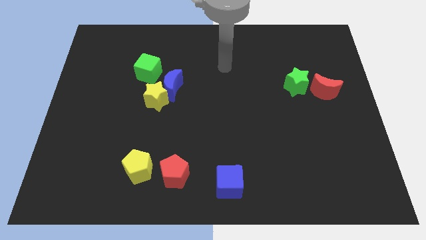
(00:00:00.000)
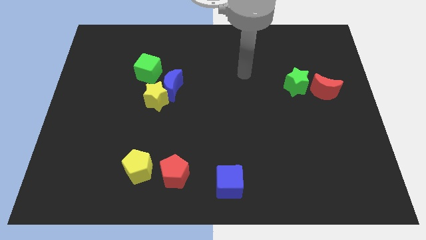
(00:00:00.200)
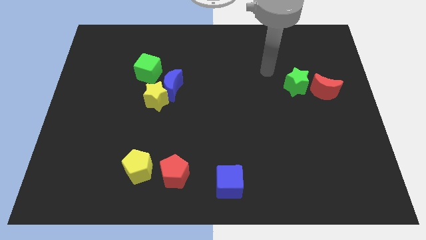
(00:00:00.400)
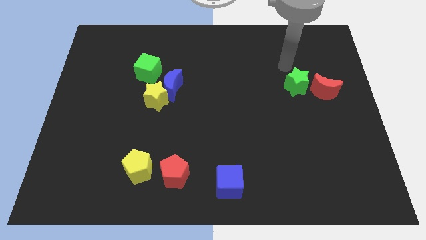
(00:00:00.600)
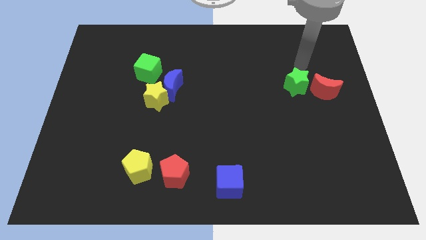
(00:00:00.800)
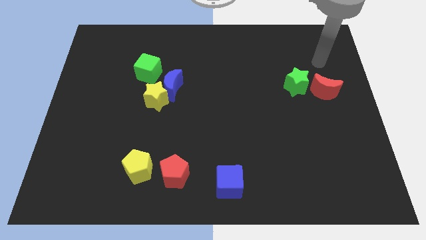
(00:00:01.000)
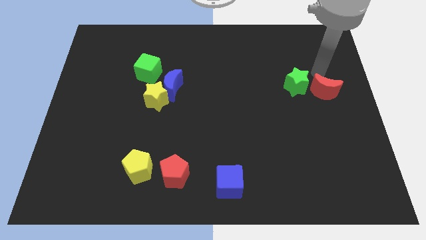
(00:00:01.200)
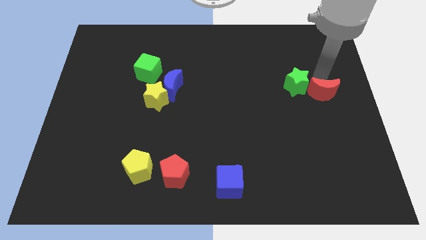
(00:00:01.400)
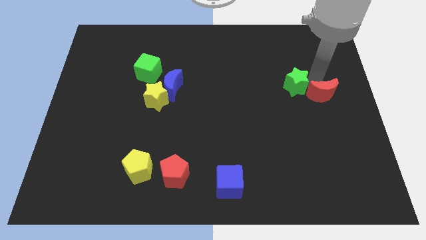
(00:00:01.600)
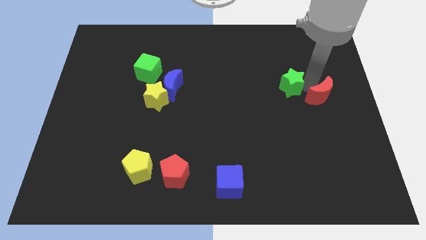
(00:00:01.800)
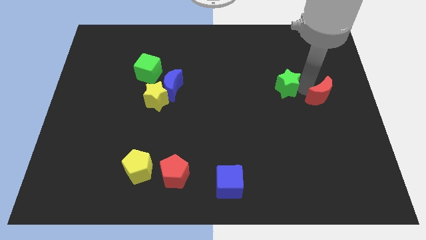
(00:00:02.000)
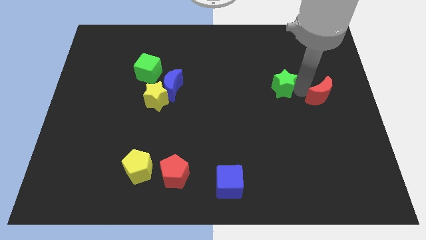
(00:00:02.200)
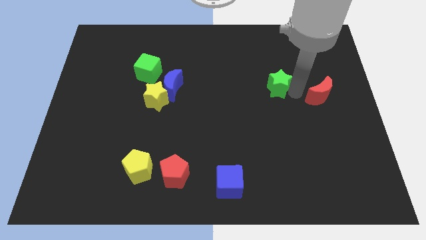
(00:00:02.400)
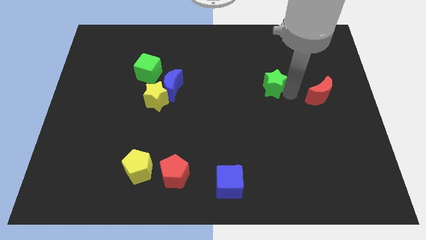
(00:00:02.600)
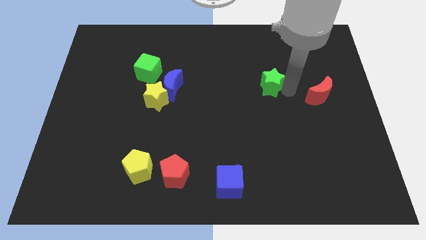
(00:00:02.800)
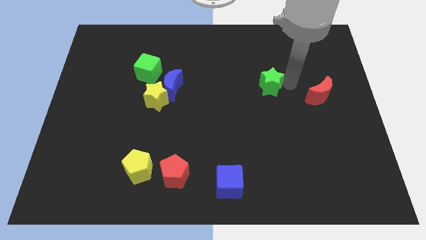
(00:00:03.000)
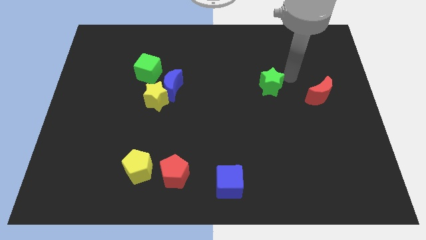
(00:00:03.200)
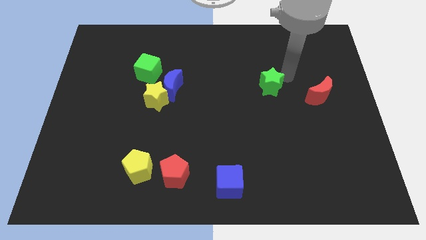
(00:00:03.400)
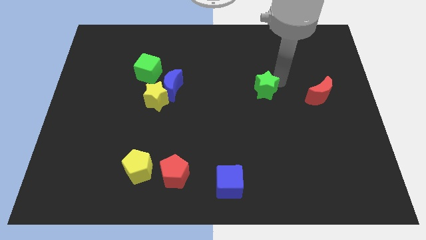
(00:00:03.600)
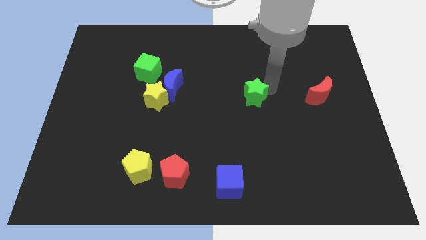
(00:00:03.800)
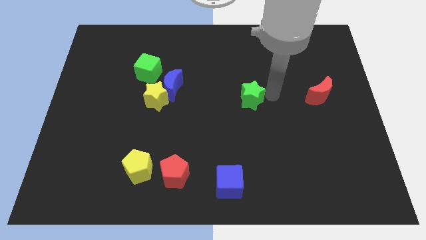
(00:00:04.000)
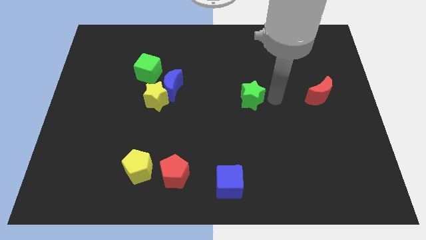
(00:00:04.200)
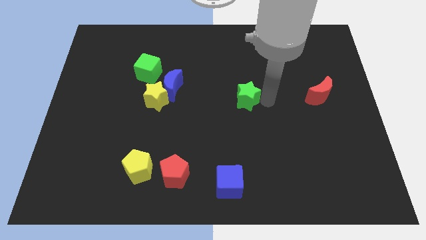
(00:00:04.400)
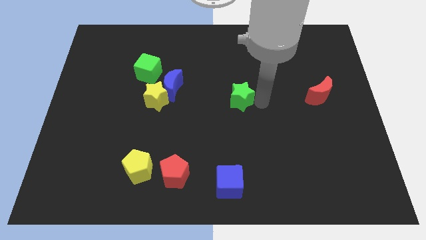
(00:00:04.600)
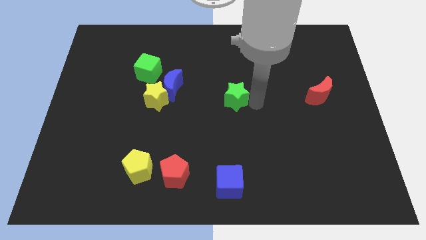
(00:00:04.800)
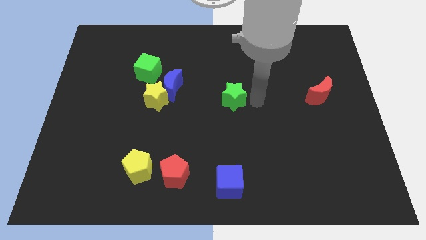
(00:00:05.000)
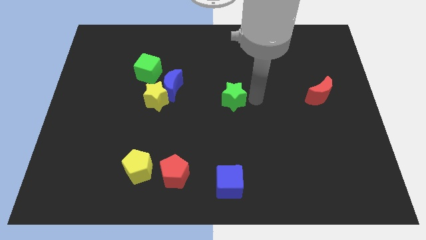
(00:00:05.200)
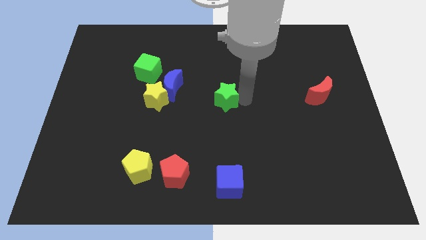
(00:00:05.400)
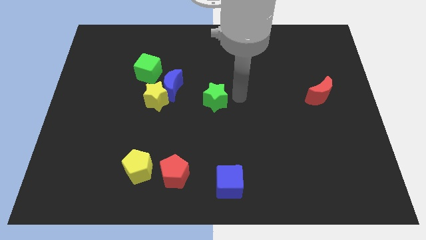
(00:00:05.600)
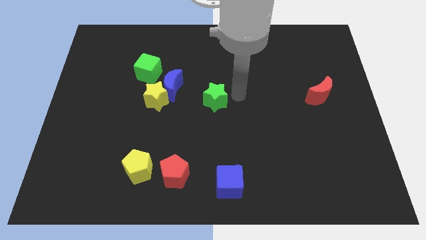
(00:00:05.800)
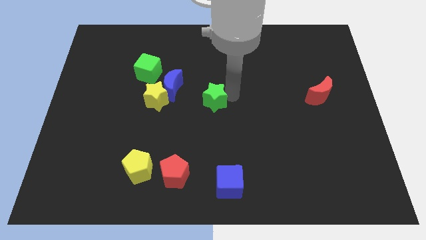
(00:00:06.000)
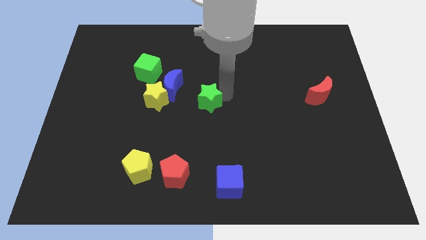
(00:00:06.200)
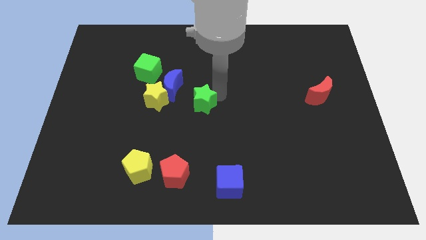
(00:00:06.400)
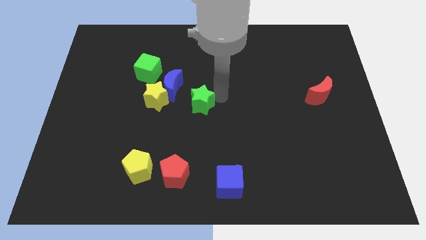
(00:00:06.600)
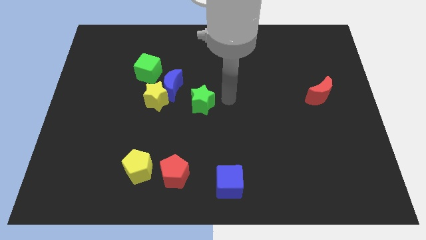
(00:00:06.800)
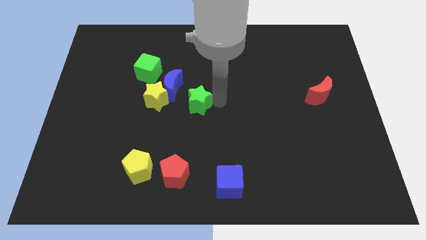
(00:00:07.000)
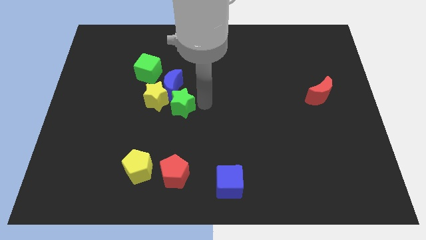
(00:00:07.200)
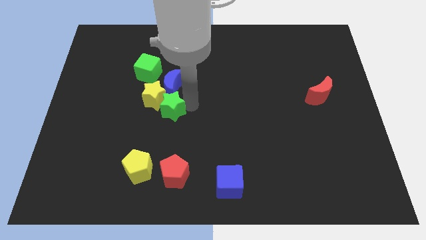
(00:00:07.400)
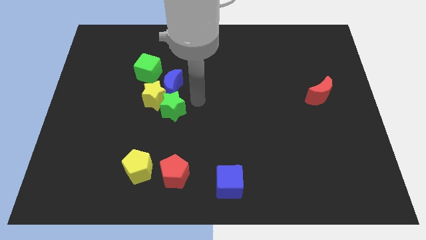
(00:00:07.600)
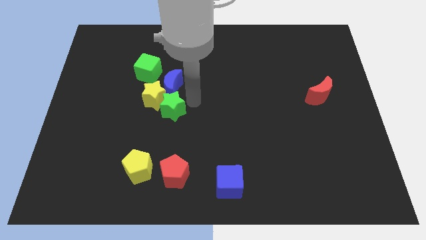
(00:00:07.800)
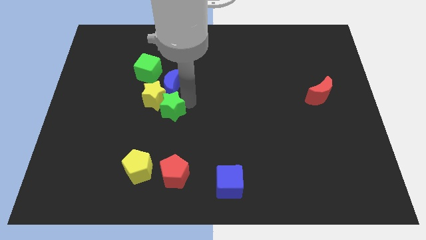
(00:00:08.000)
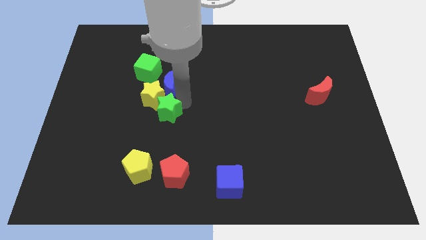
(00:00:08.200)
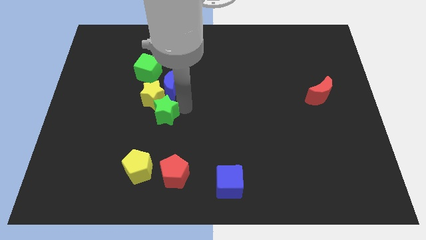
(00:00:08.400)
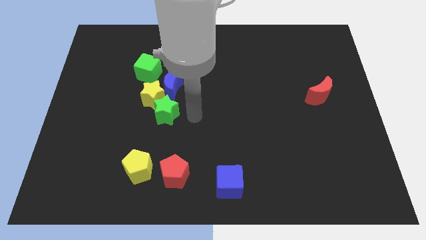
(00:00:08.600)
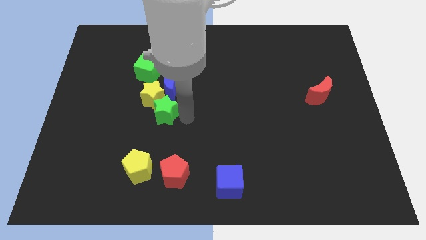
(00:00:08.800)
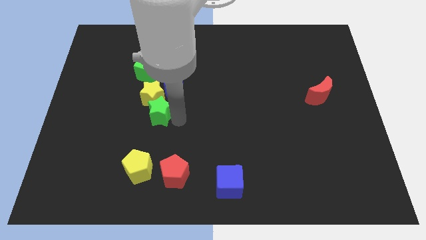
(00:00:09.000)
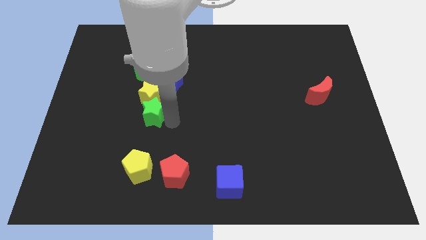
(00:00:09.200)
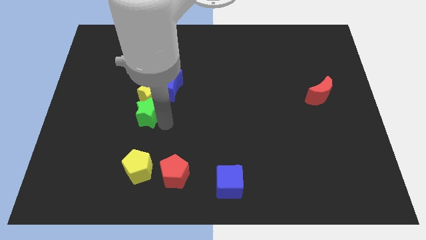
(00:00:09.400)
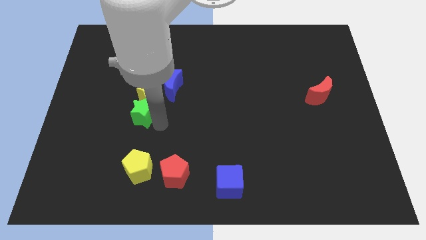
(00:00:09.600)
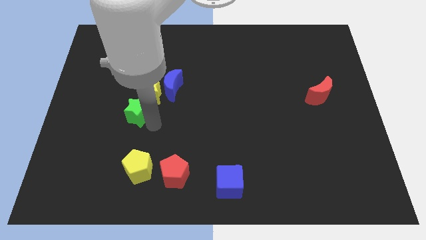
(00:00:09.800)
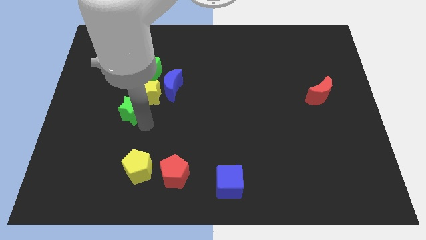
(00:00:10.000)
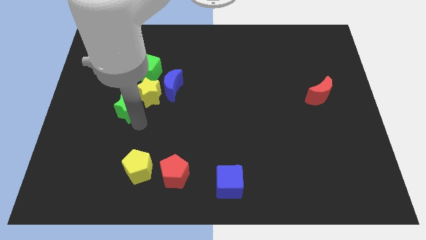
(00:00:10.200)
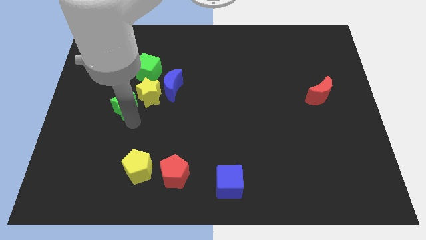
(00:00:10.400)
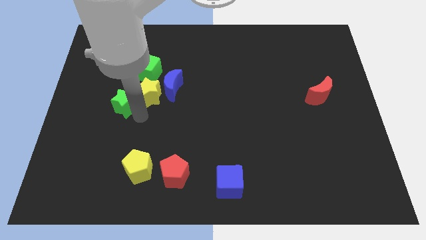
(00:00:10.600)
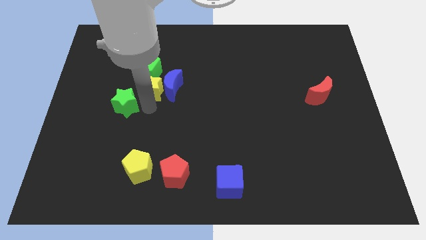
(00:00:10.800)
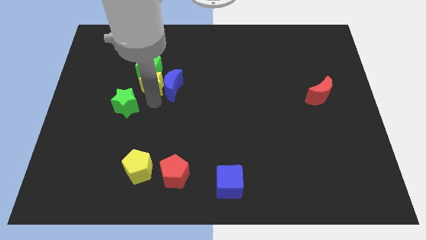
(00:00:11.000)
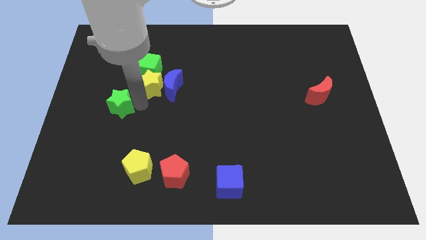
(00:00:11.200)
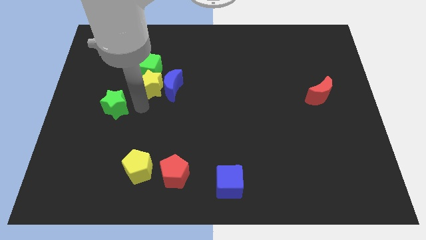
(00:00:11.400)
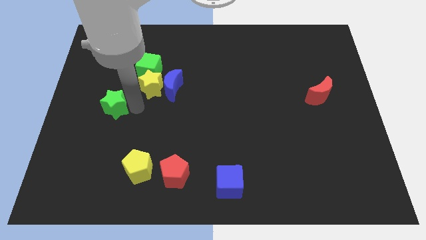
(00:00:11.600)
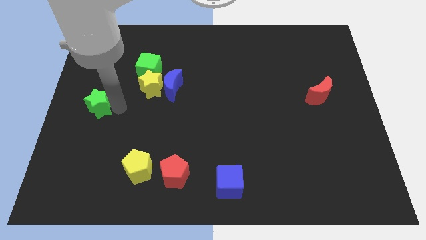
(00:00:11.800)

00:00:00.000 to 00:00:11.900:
slide the green star to the center left

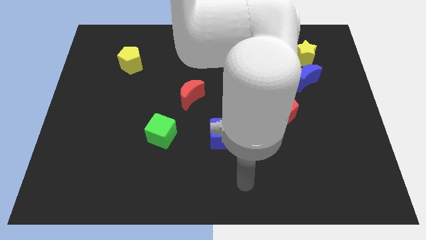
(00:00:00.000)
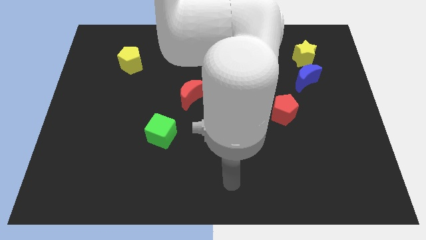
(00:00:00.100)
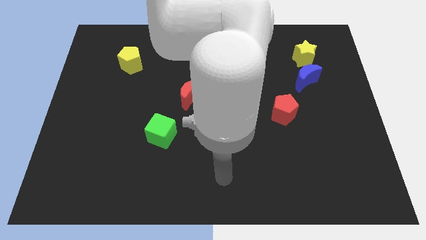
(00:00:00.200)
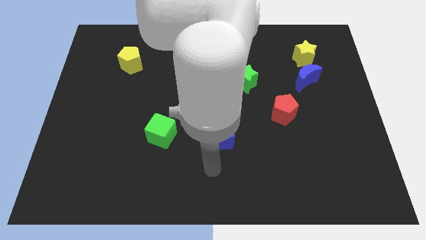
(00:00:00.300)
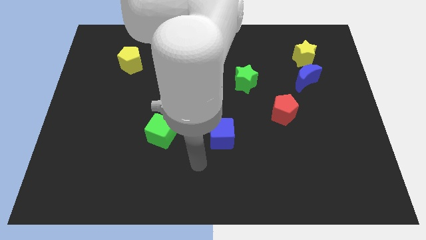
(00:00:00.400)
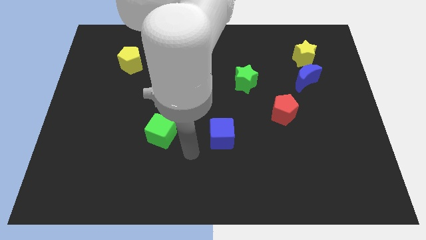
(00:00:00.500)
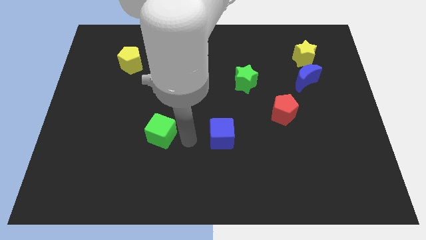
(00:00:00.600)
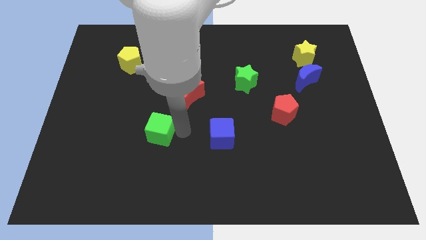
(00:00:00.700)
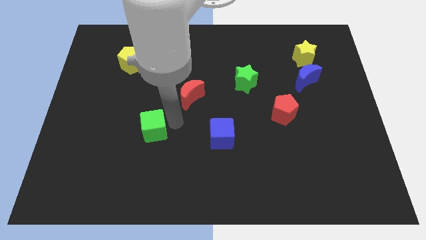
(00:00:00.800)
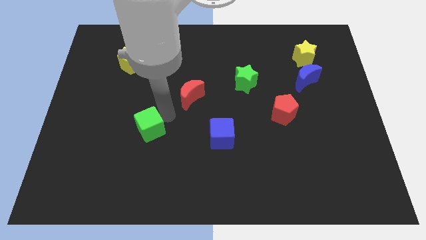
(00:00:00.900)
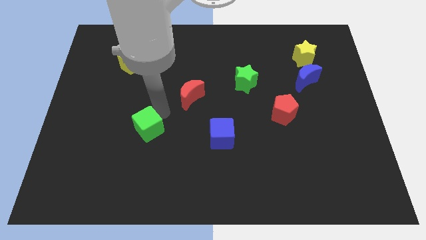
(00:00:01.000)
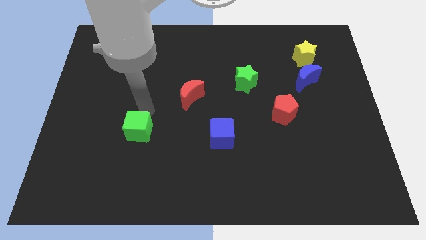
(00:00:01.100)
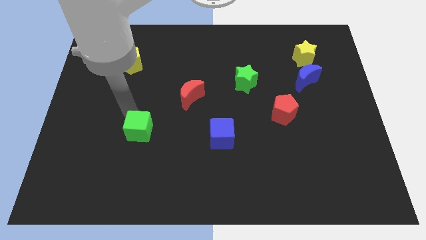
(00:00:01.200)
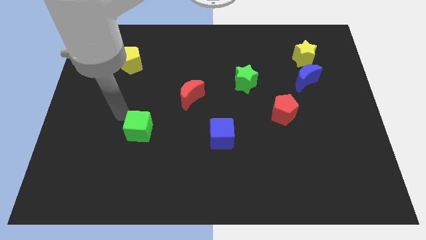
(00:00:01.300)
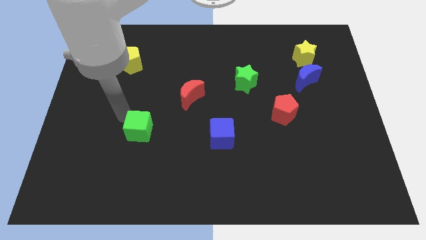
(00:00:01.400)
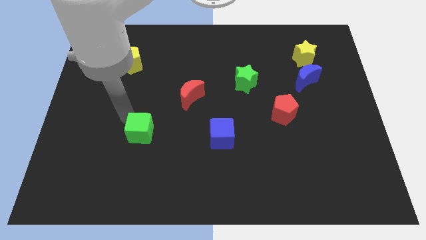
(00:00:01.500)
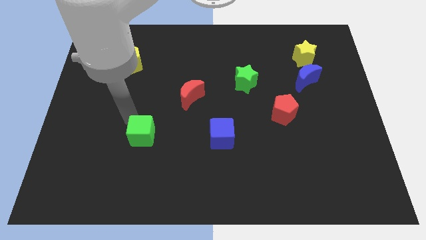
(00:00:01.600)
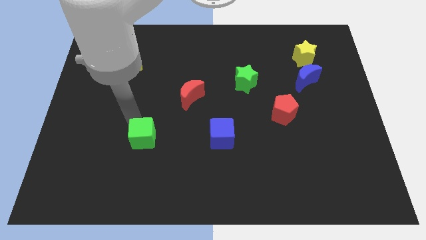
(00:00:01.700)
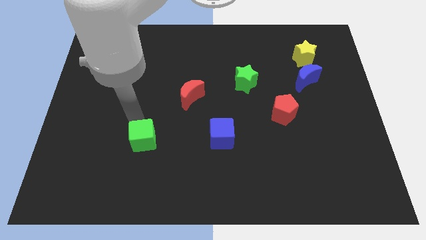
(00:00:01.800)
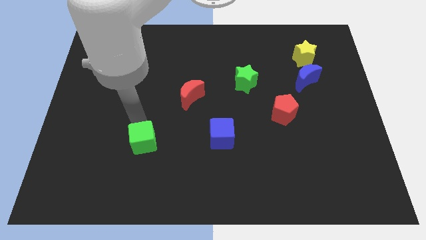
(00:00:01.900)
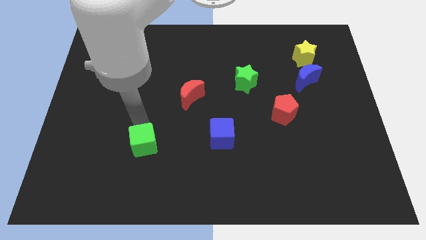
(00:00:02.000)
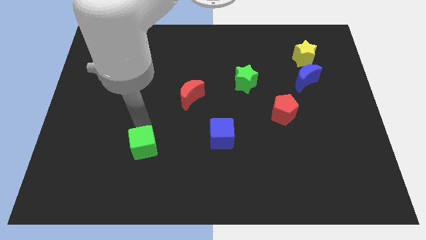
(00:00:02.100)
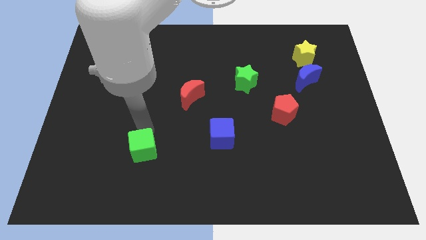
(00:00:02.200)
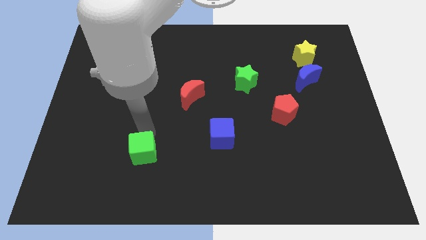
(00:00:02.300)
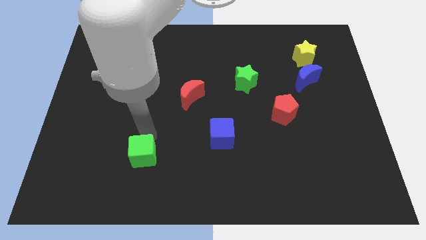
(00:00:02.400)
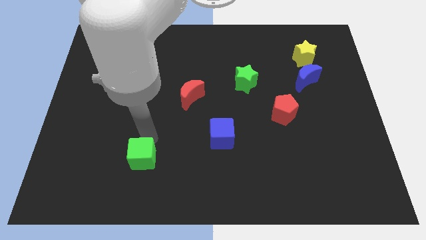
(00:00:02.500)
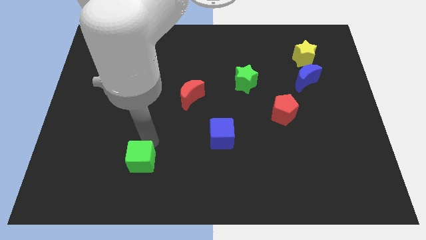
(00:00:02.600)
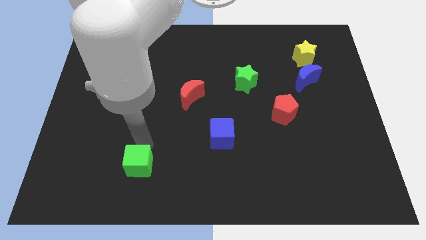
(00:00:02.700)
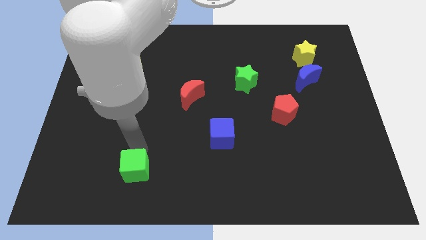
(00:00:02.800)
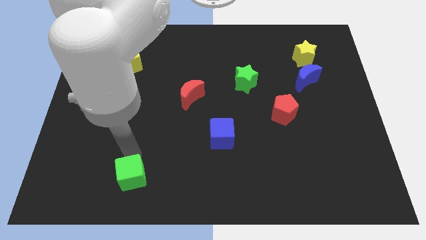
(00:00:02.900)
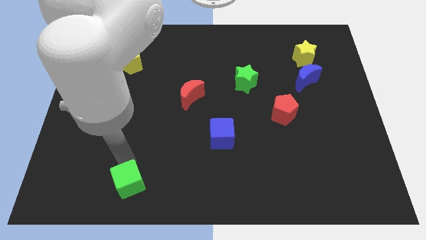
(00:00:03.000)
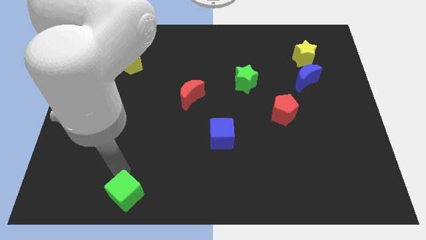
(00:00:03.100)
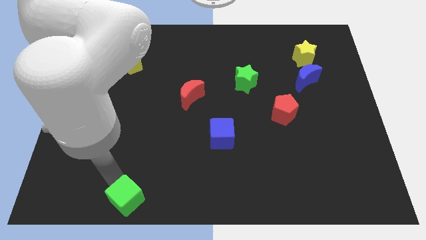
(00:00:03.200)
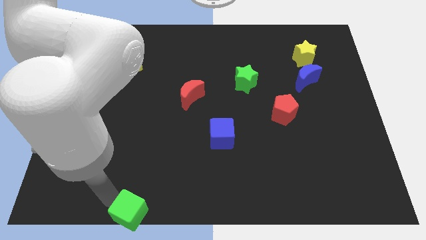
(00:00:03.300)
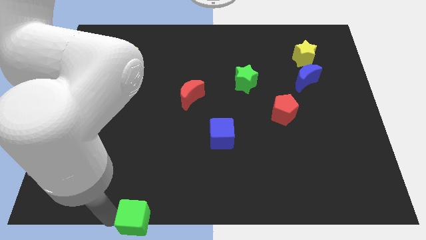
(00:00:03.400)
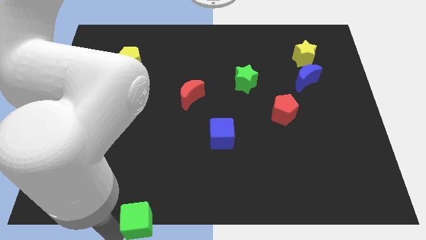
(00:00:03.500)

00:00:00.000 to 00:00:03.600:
put the green cube to the bottom
